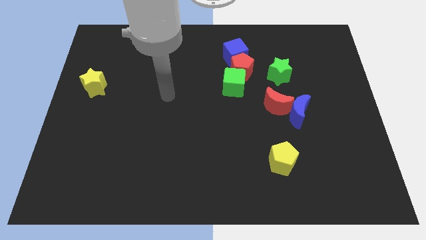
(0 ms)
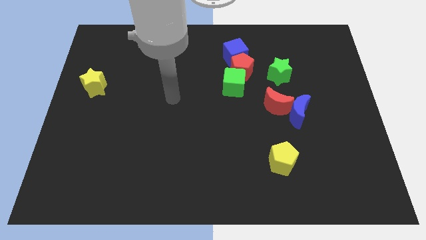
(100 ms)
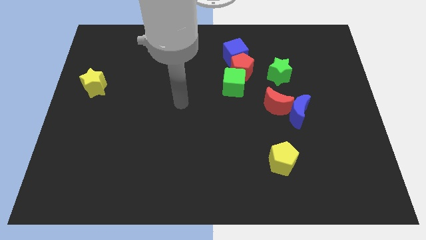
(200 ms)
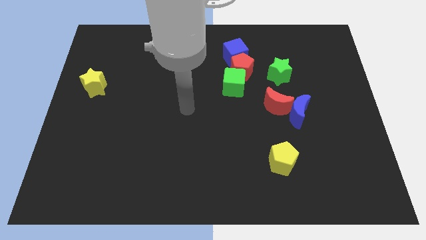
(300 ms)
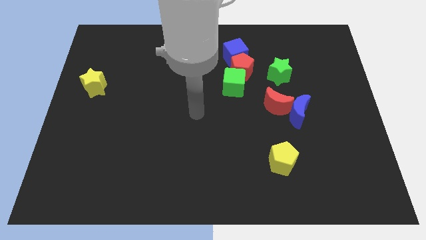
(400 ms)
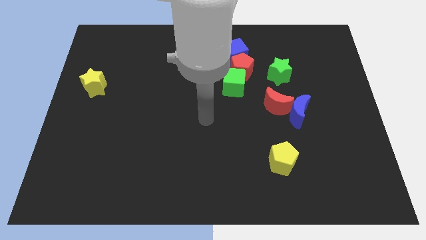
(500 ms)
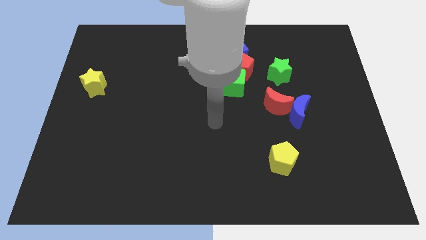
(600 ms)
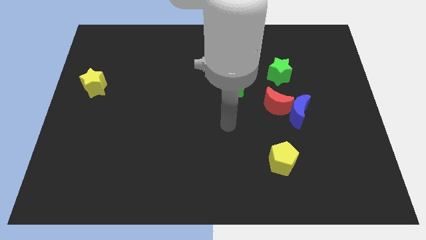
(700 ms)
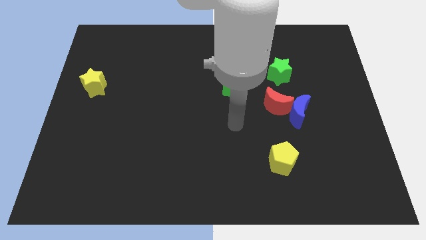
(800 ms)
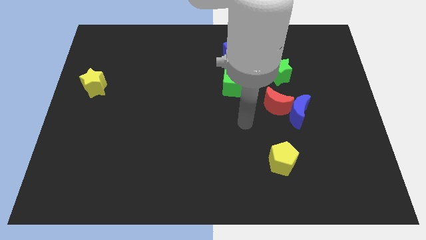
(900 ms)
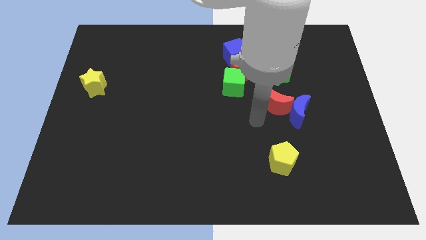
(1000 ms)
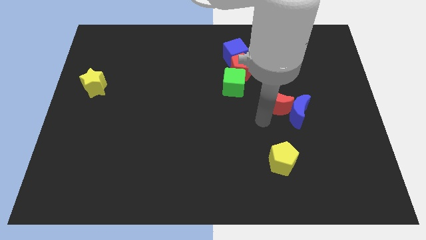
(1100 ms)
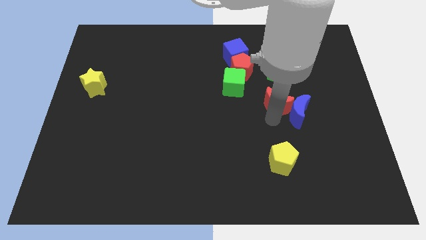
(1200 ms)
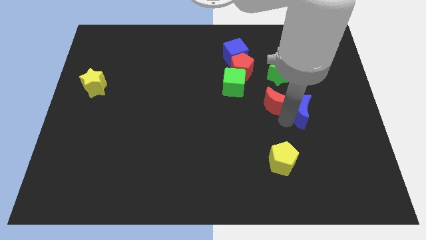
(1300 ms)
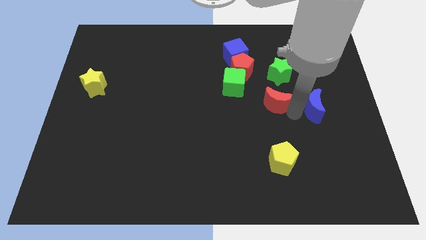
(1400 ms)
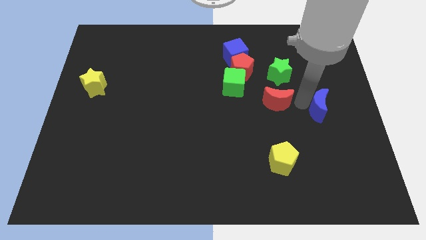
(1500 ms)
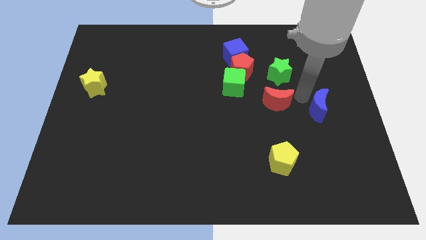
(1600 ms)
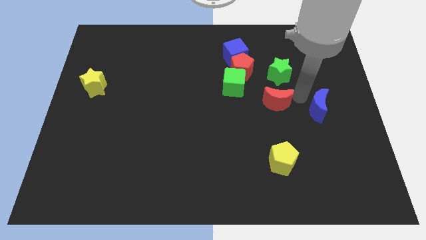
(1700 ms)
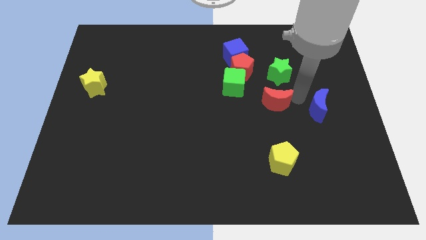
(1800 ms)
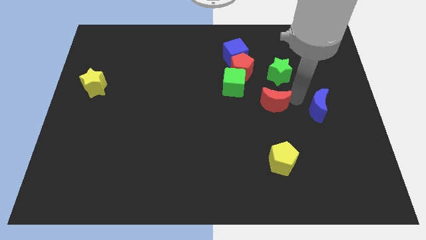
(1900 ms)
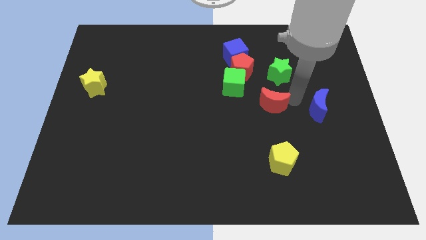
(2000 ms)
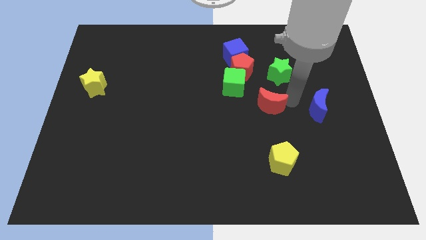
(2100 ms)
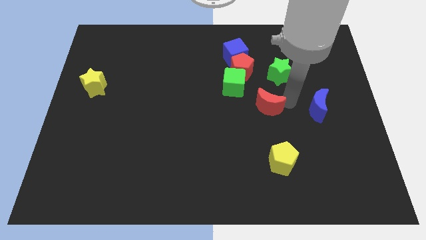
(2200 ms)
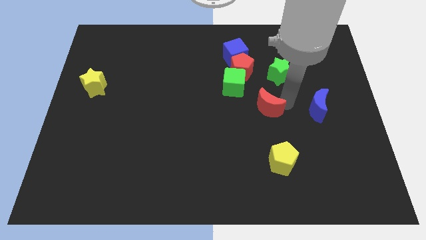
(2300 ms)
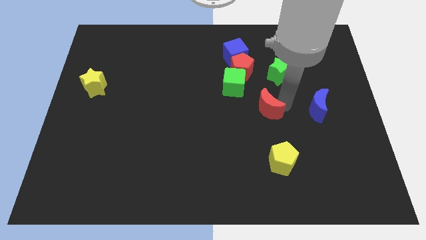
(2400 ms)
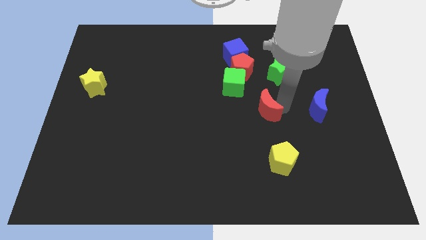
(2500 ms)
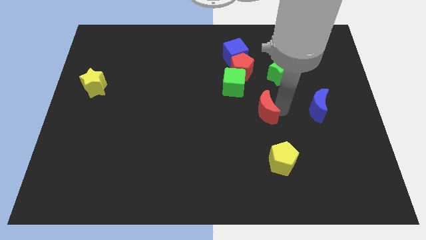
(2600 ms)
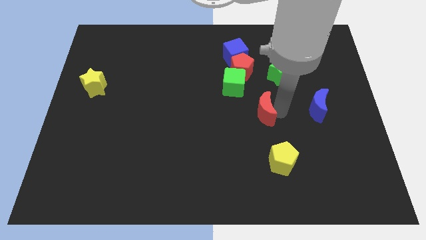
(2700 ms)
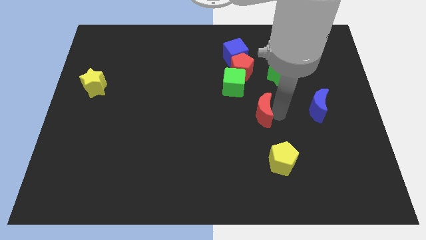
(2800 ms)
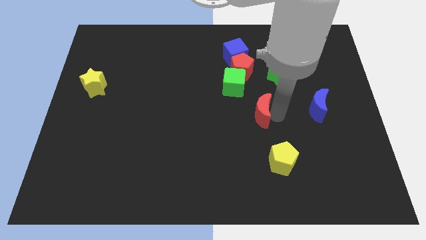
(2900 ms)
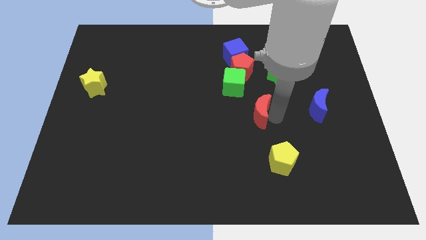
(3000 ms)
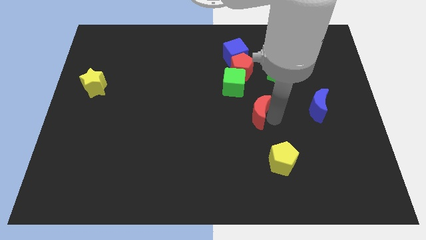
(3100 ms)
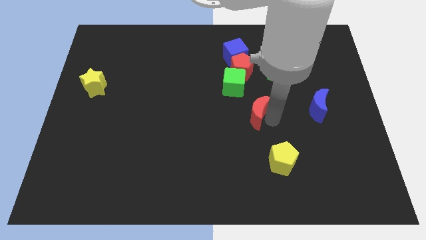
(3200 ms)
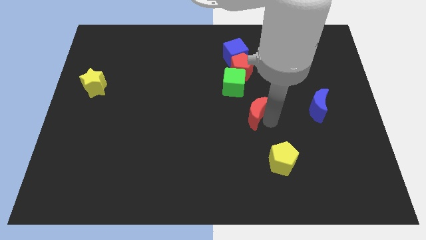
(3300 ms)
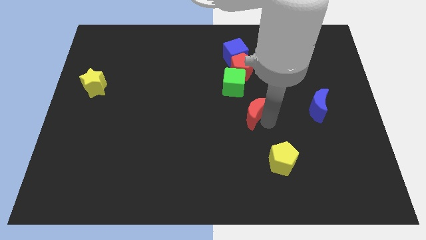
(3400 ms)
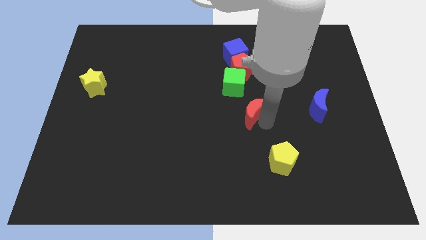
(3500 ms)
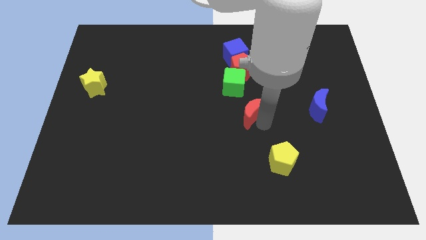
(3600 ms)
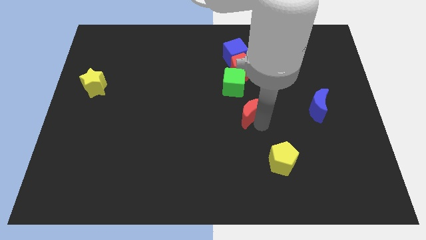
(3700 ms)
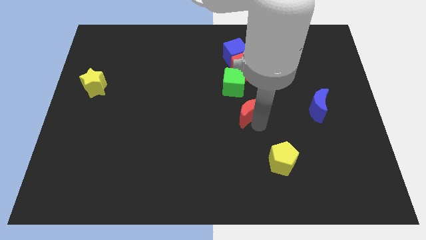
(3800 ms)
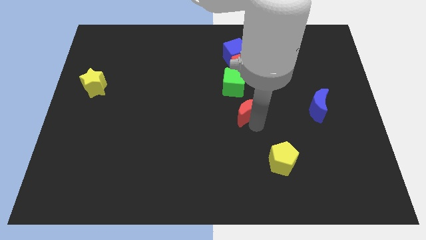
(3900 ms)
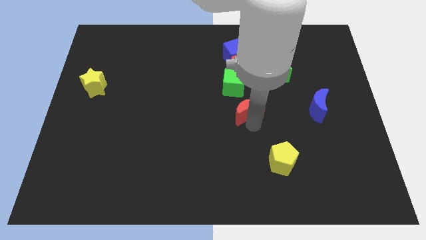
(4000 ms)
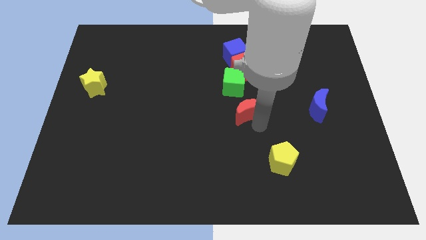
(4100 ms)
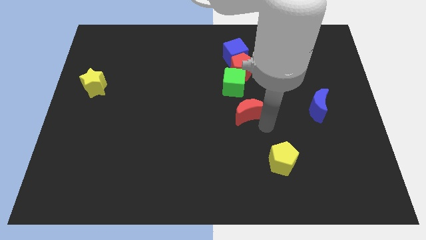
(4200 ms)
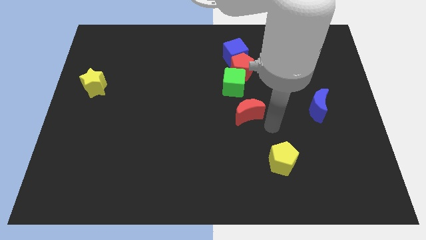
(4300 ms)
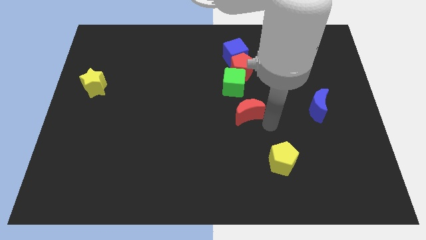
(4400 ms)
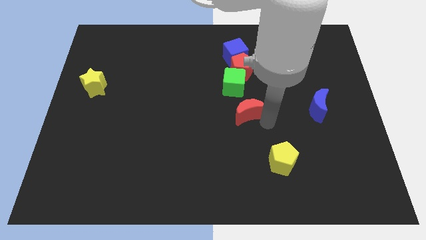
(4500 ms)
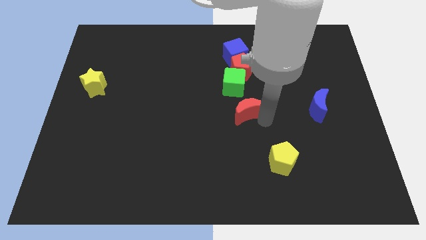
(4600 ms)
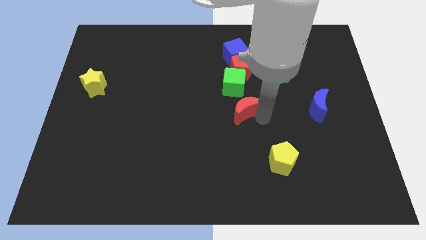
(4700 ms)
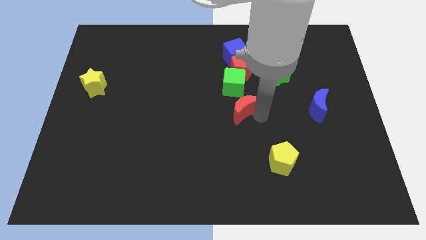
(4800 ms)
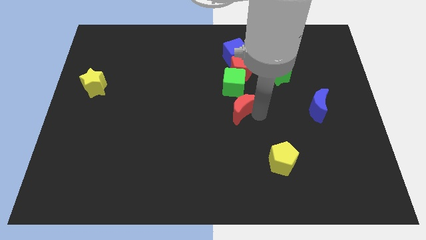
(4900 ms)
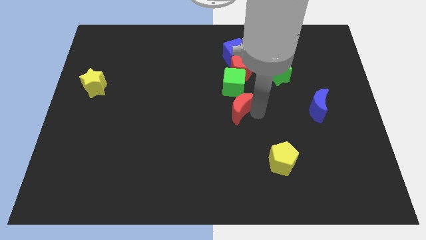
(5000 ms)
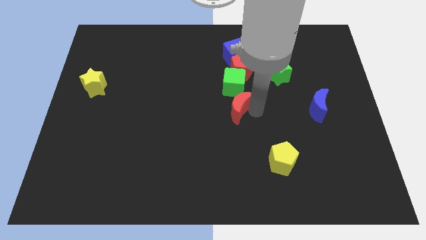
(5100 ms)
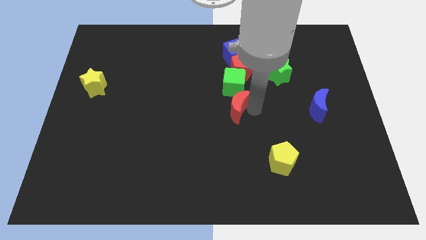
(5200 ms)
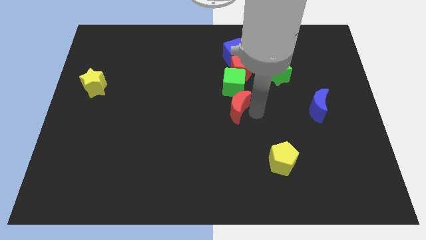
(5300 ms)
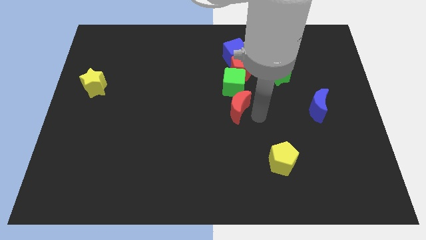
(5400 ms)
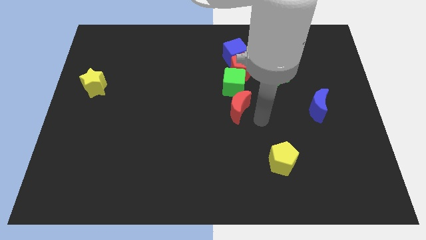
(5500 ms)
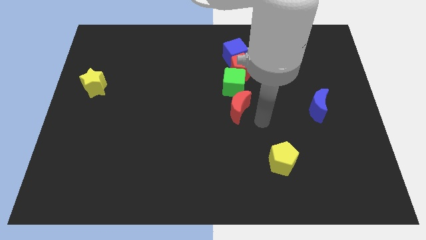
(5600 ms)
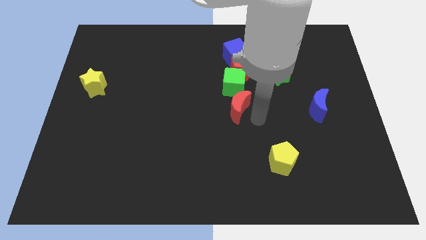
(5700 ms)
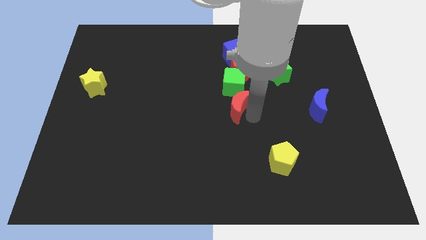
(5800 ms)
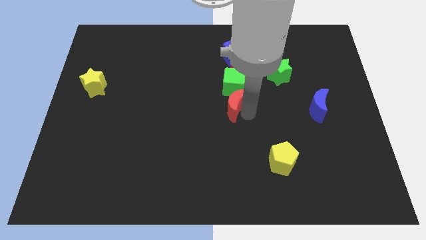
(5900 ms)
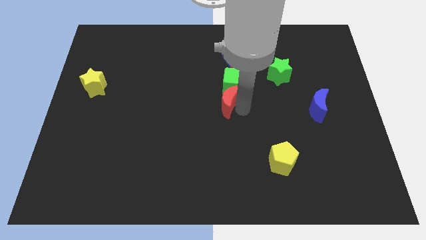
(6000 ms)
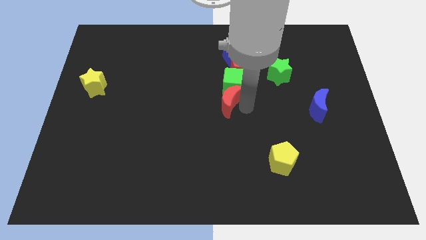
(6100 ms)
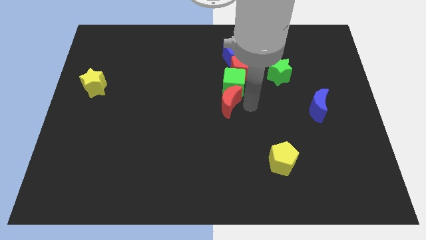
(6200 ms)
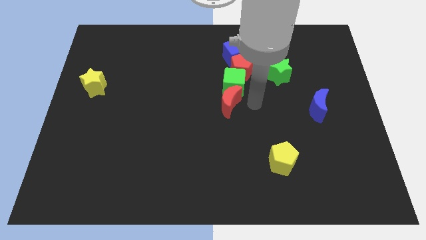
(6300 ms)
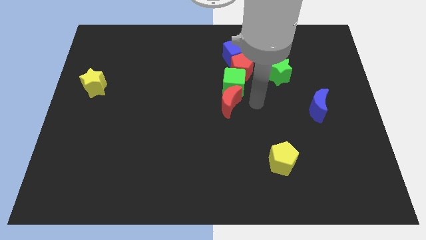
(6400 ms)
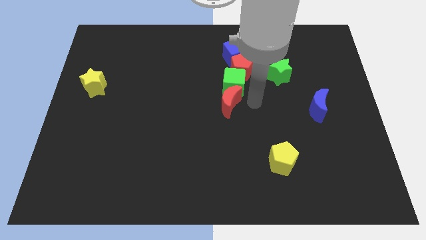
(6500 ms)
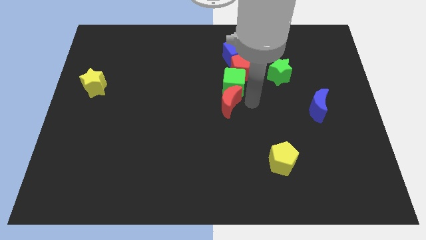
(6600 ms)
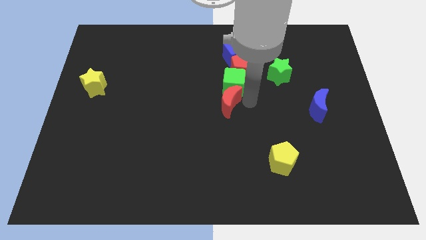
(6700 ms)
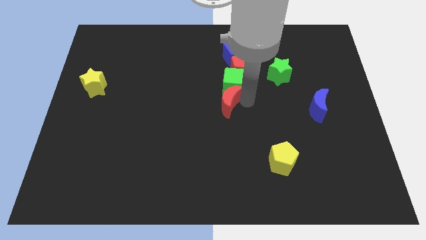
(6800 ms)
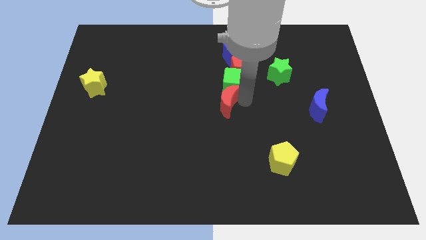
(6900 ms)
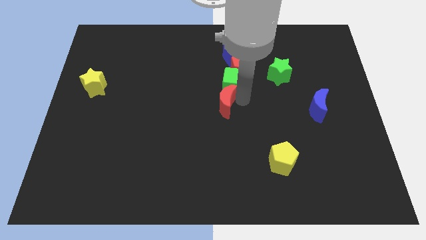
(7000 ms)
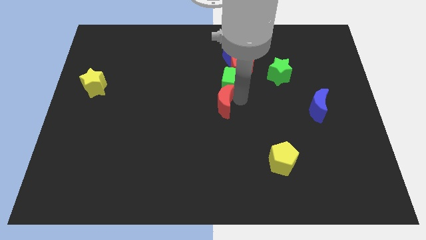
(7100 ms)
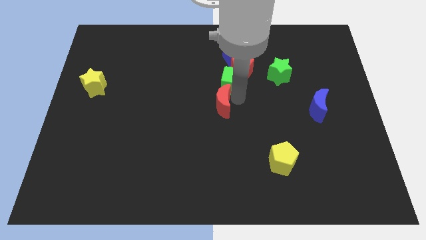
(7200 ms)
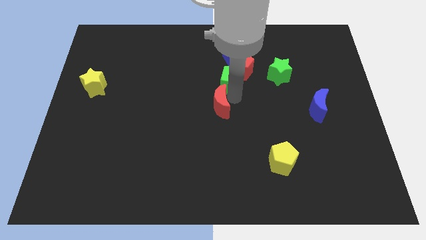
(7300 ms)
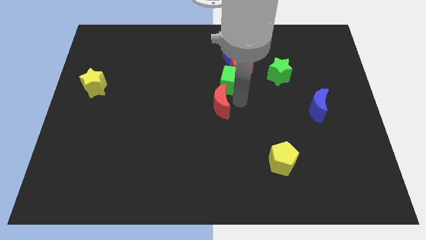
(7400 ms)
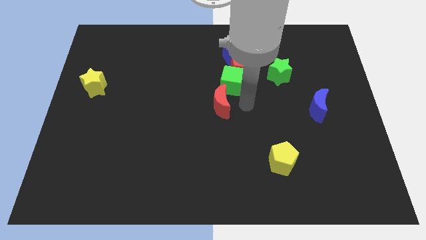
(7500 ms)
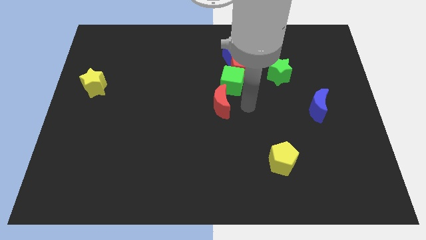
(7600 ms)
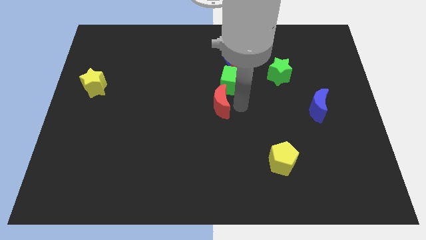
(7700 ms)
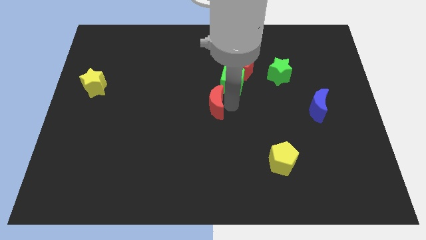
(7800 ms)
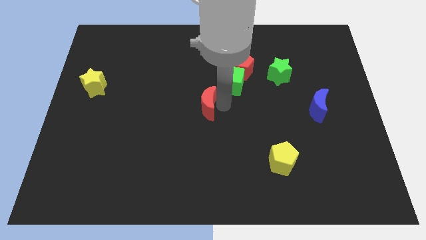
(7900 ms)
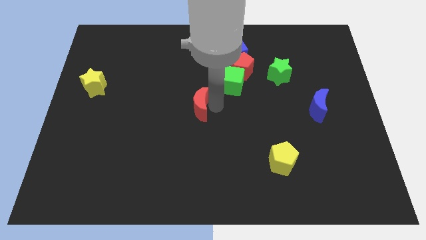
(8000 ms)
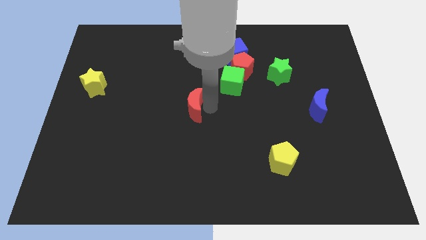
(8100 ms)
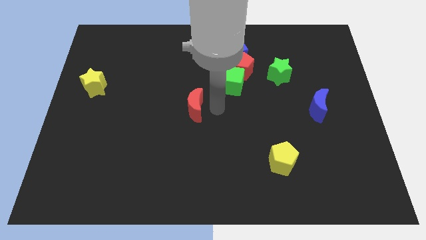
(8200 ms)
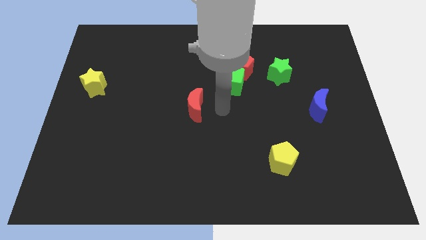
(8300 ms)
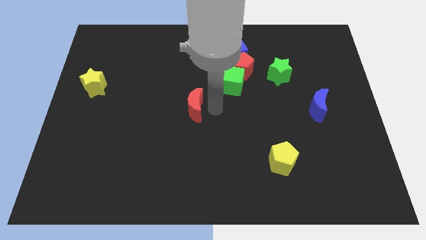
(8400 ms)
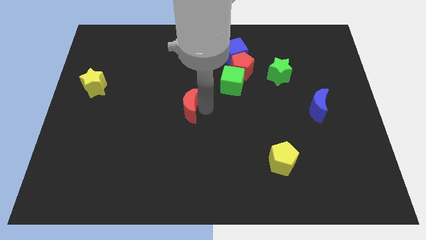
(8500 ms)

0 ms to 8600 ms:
push the red moon to the left
